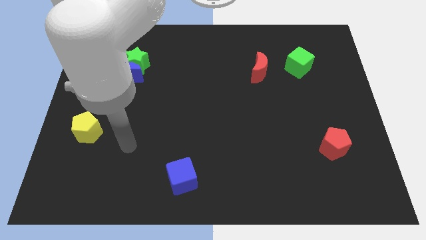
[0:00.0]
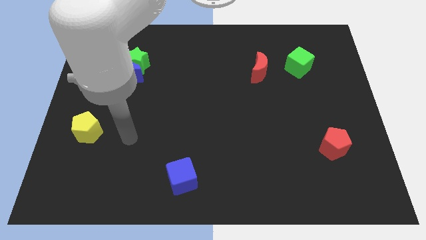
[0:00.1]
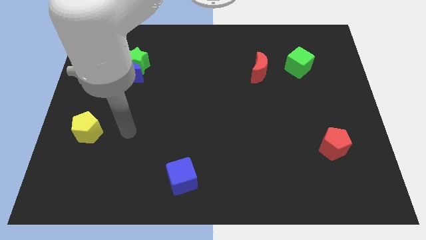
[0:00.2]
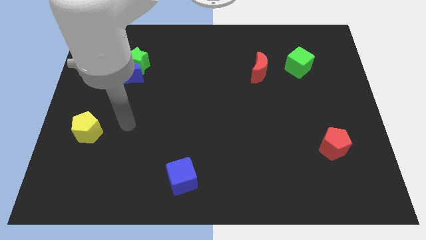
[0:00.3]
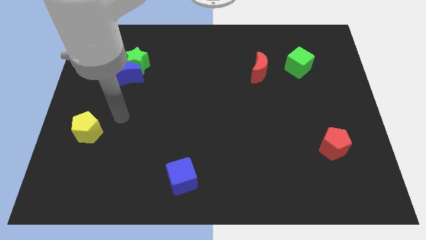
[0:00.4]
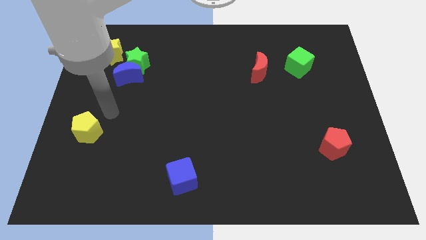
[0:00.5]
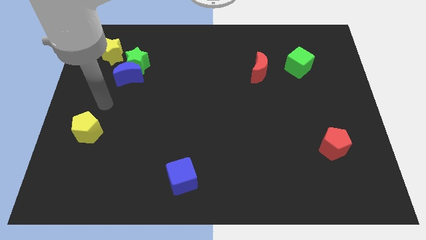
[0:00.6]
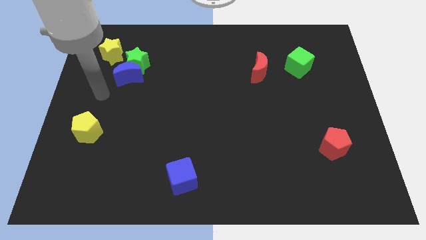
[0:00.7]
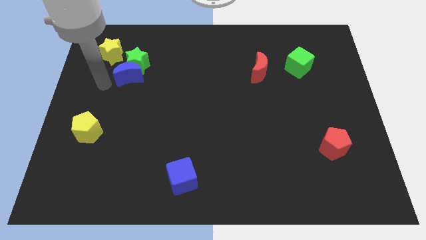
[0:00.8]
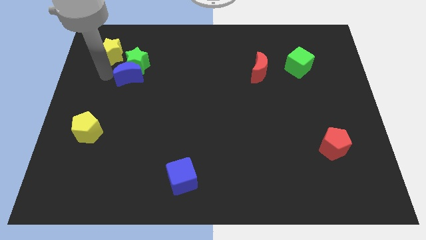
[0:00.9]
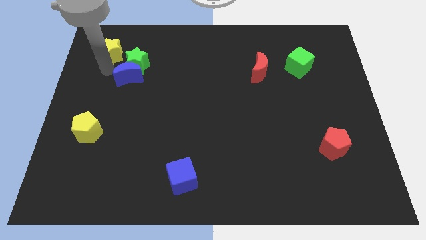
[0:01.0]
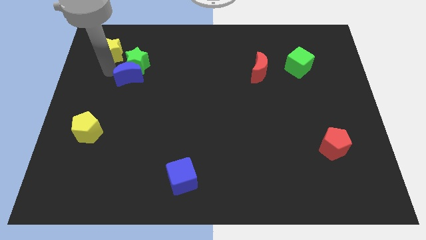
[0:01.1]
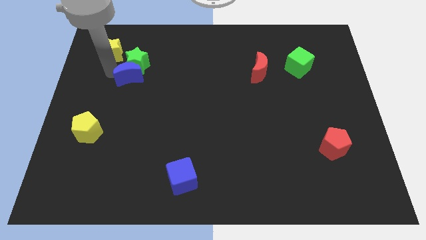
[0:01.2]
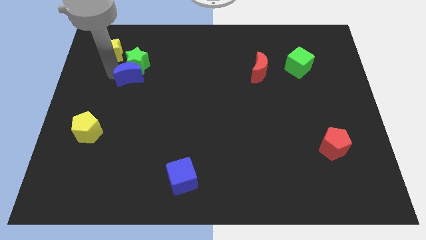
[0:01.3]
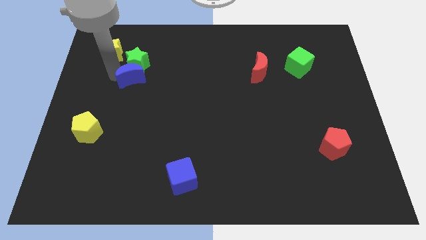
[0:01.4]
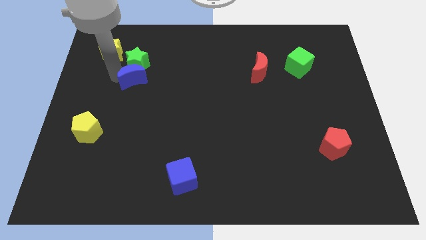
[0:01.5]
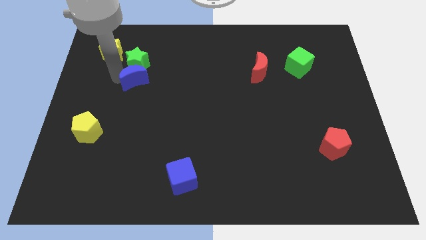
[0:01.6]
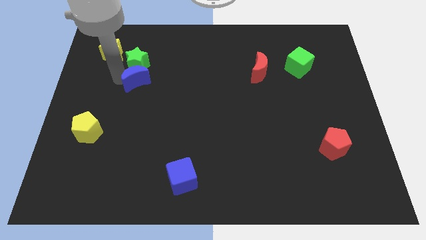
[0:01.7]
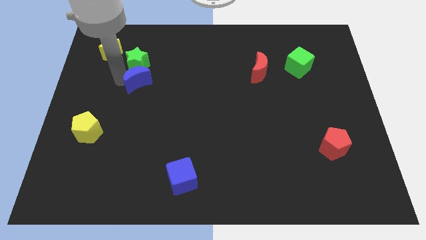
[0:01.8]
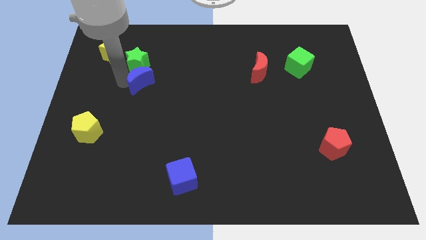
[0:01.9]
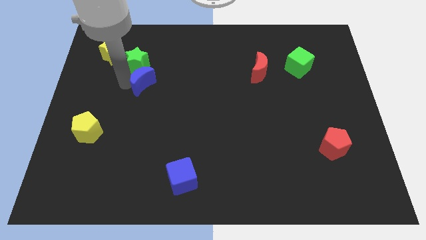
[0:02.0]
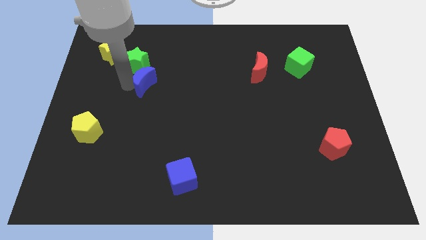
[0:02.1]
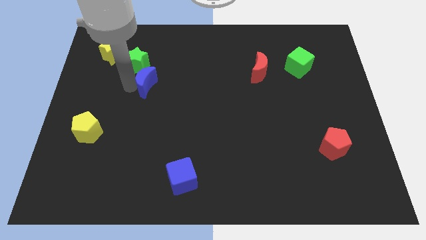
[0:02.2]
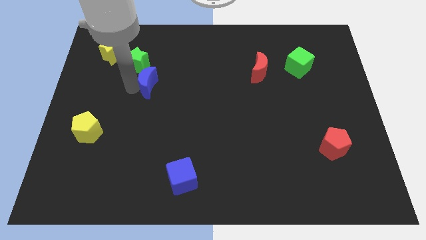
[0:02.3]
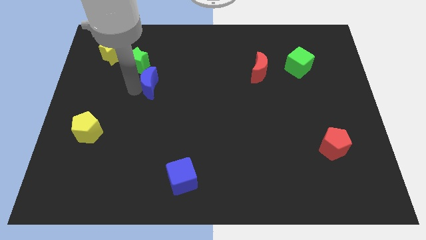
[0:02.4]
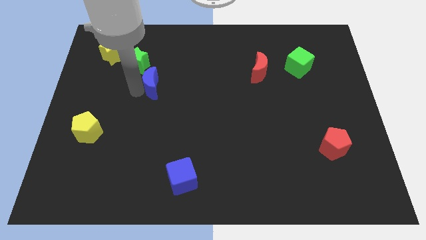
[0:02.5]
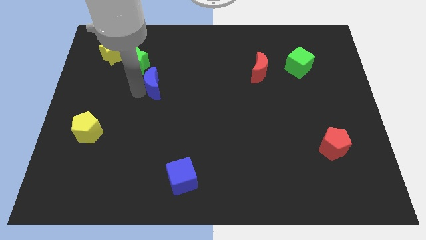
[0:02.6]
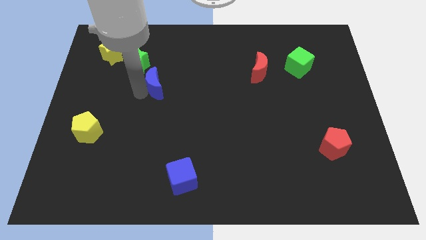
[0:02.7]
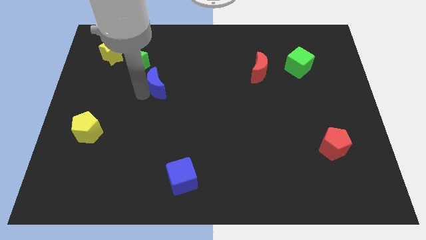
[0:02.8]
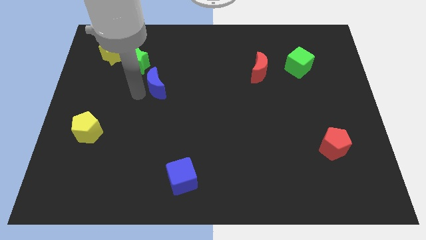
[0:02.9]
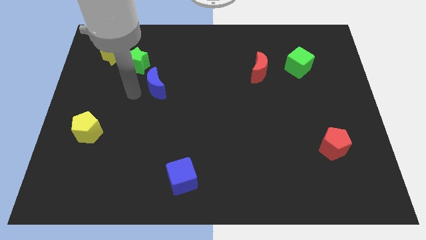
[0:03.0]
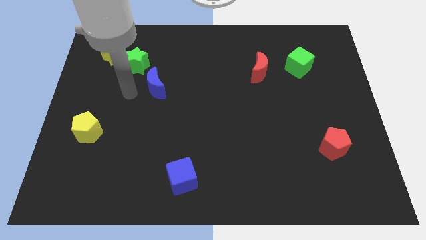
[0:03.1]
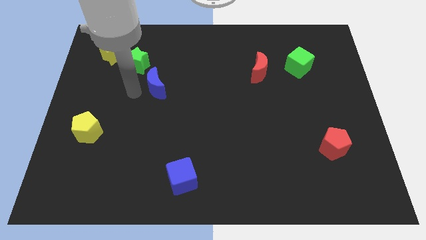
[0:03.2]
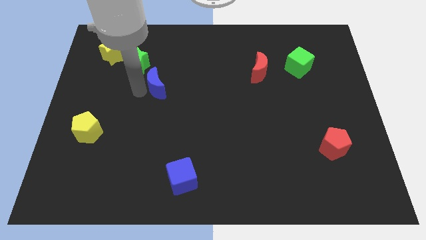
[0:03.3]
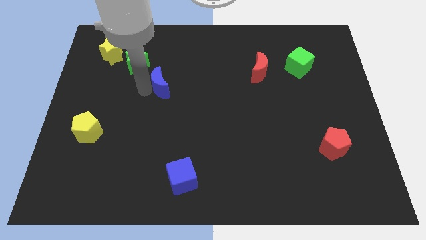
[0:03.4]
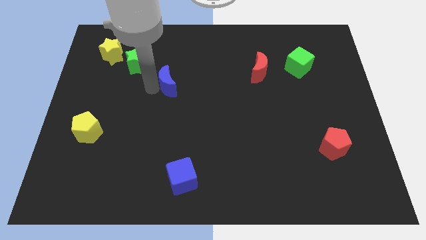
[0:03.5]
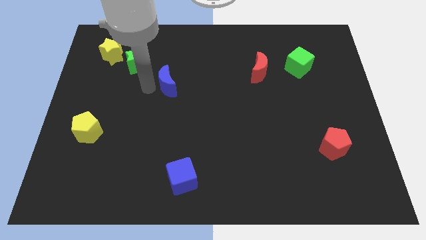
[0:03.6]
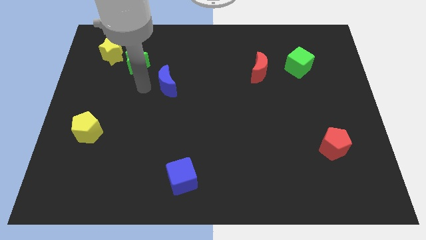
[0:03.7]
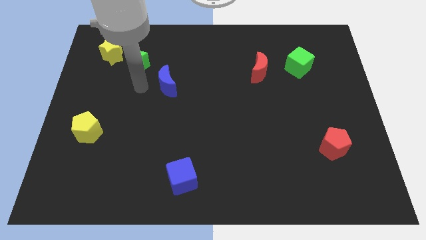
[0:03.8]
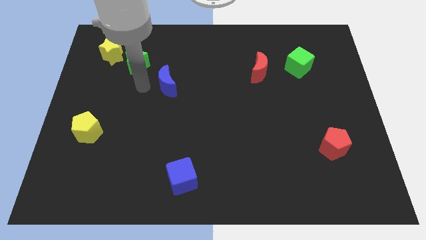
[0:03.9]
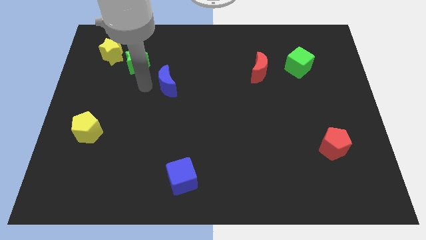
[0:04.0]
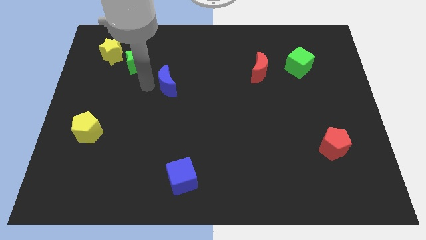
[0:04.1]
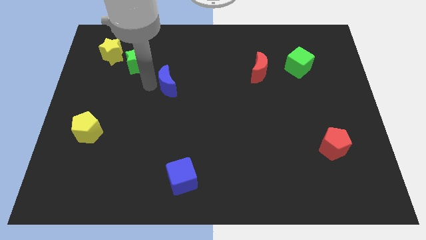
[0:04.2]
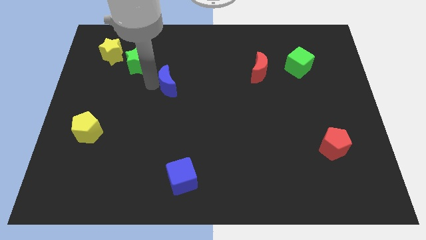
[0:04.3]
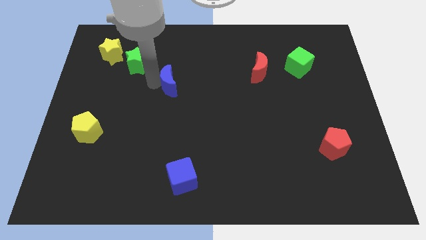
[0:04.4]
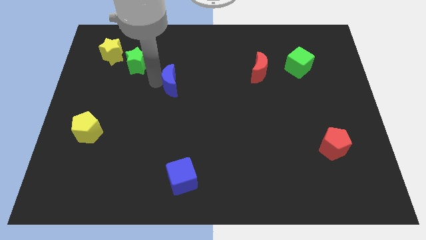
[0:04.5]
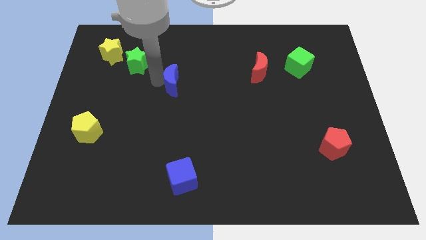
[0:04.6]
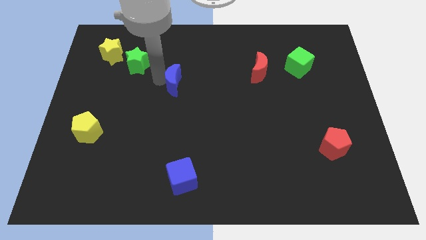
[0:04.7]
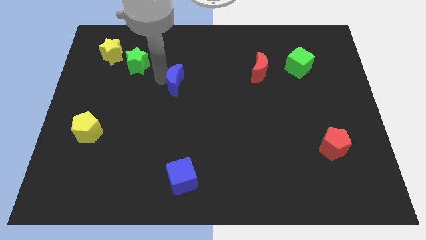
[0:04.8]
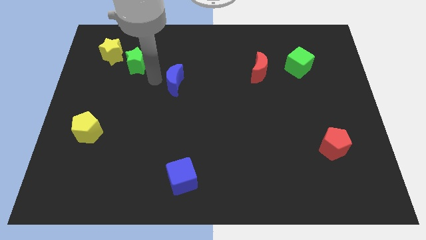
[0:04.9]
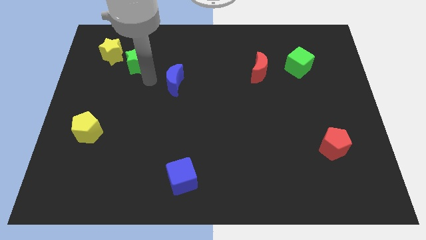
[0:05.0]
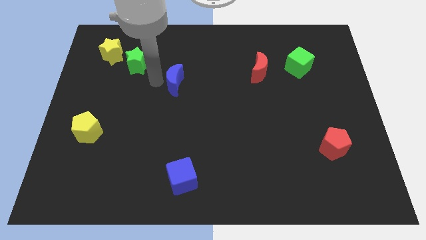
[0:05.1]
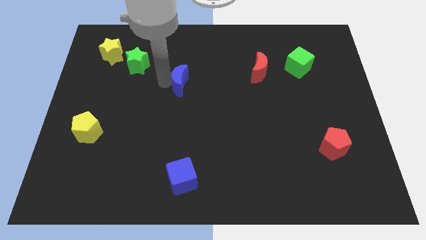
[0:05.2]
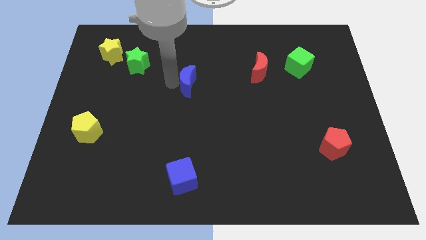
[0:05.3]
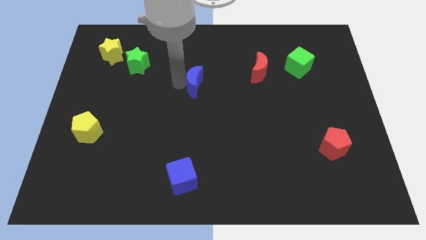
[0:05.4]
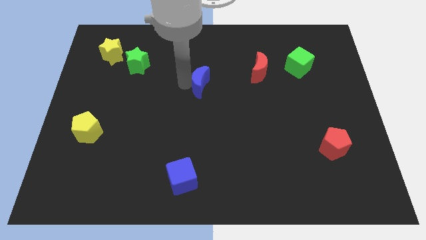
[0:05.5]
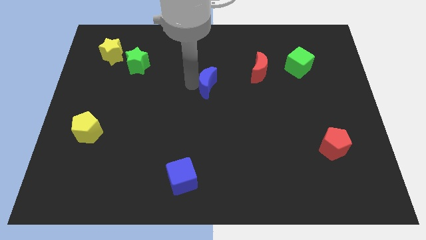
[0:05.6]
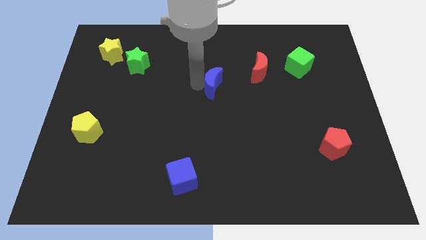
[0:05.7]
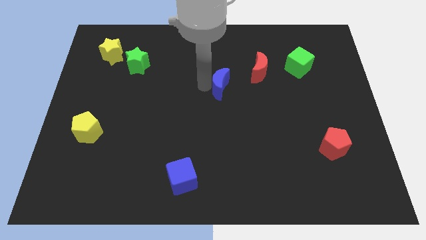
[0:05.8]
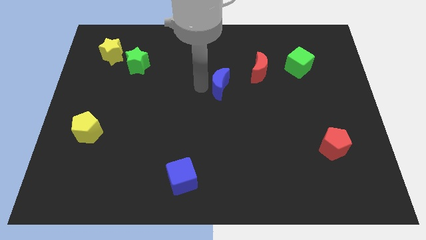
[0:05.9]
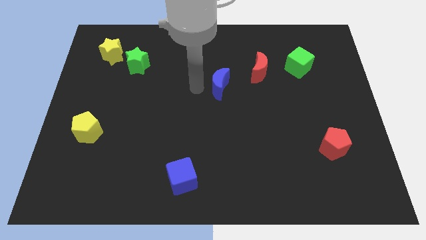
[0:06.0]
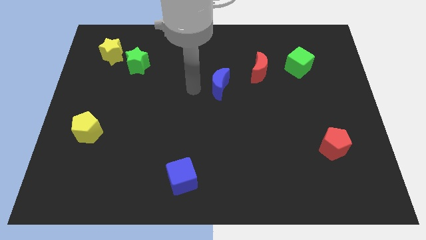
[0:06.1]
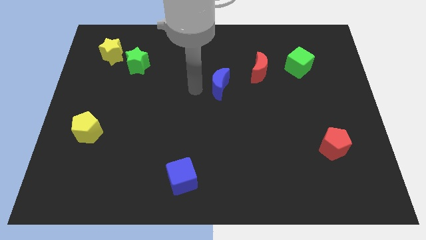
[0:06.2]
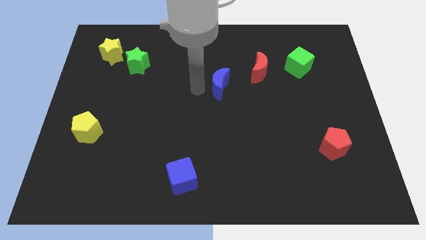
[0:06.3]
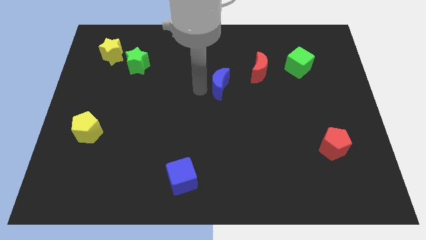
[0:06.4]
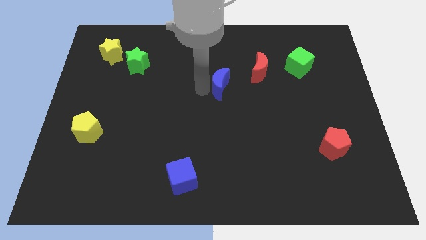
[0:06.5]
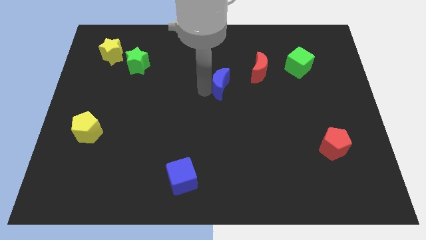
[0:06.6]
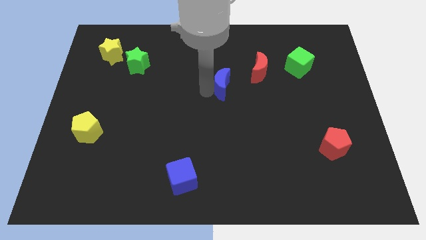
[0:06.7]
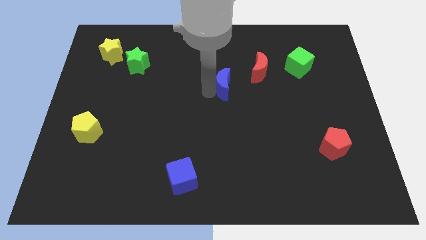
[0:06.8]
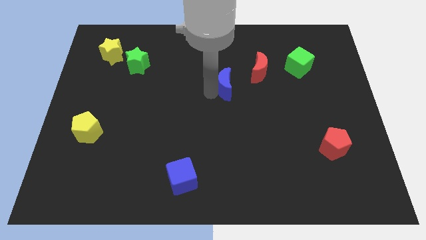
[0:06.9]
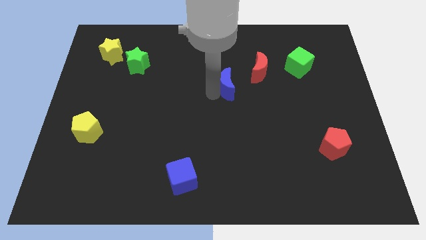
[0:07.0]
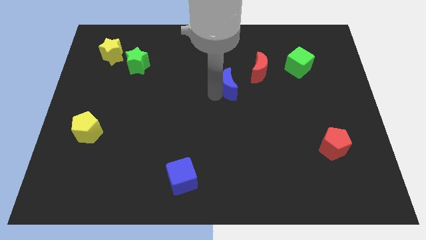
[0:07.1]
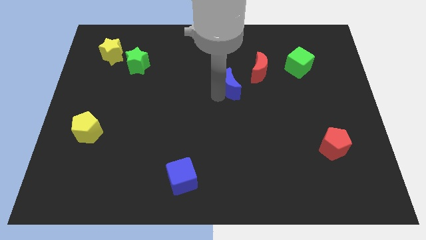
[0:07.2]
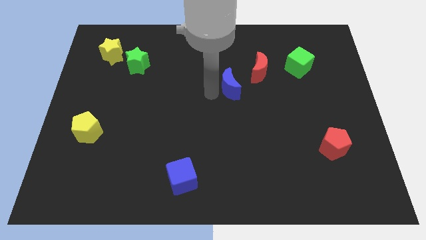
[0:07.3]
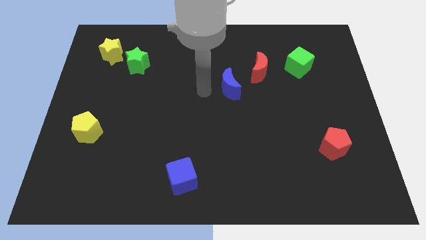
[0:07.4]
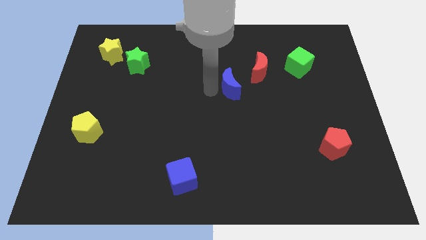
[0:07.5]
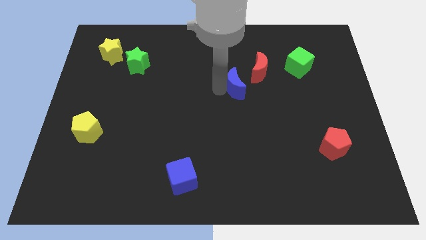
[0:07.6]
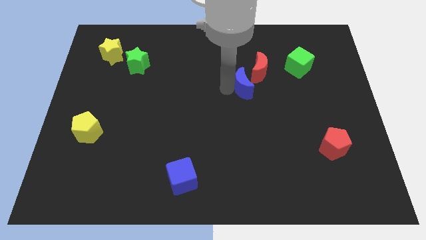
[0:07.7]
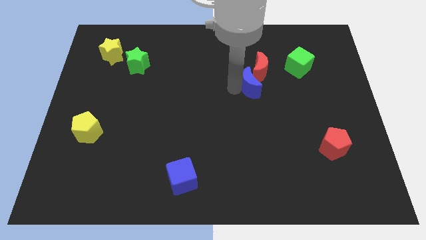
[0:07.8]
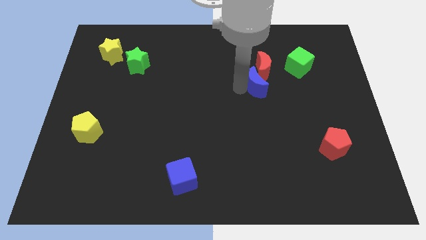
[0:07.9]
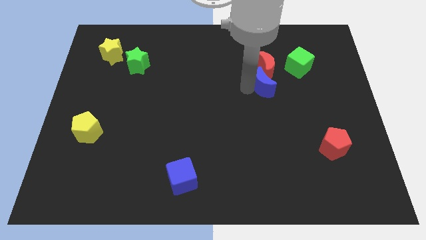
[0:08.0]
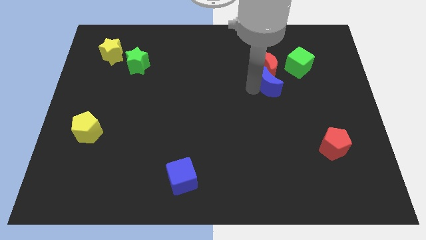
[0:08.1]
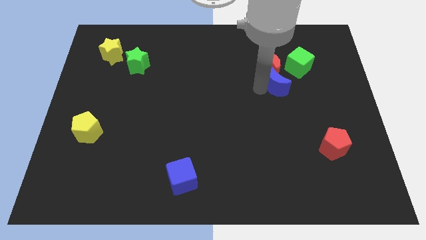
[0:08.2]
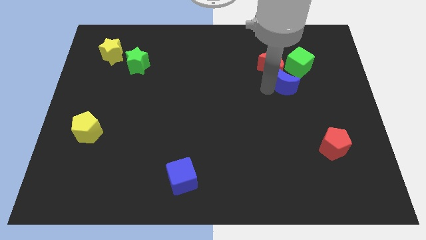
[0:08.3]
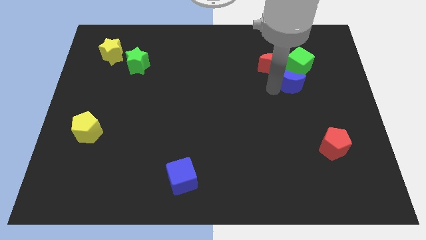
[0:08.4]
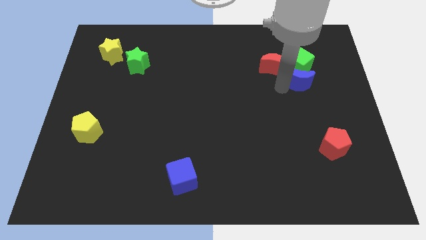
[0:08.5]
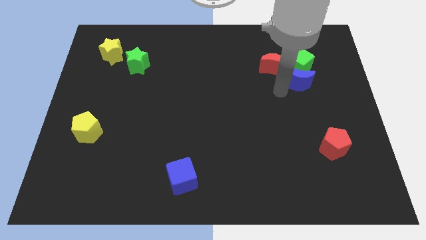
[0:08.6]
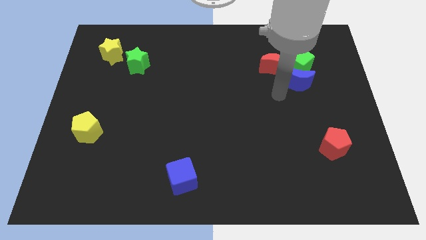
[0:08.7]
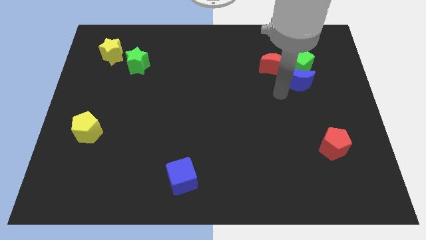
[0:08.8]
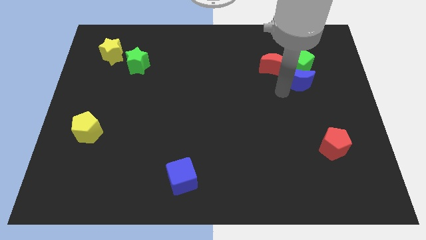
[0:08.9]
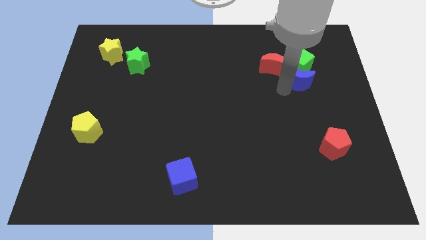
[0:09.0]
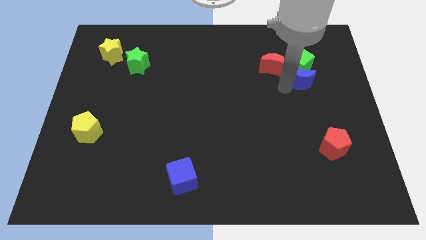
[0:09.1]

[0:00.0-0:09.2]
push the blue moon right of the red moon
